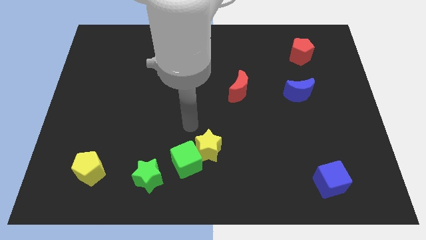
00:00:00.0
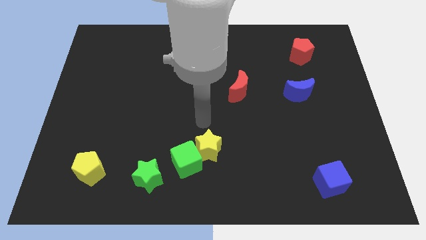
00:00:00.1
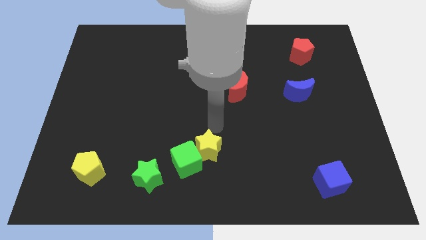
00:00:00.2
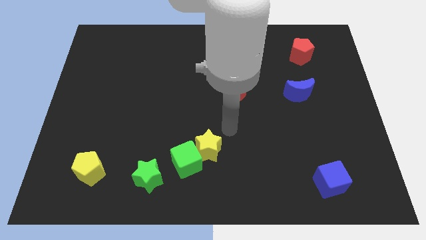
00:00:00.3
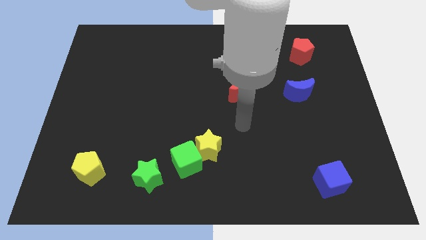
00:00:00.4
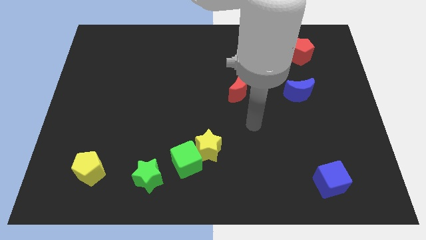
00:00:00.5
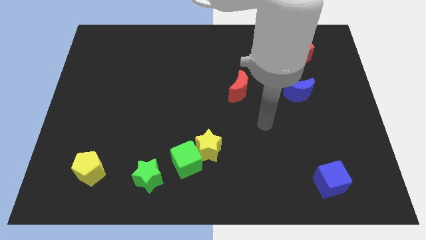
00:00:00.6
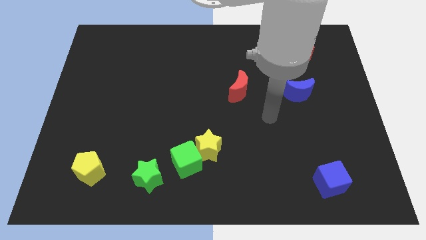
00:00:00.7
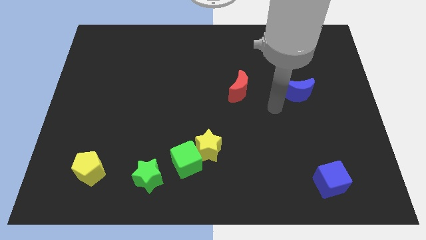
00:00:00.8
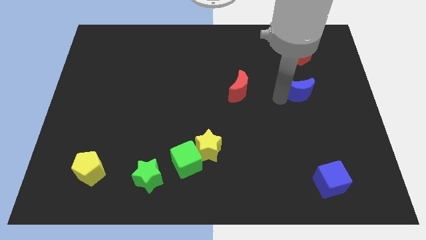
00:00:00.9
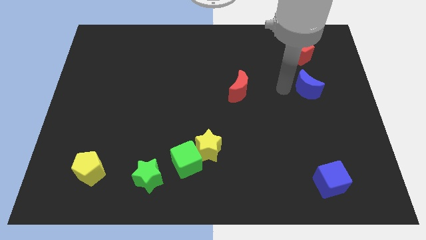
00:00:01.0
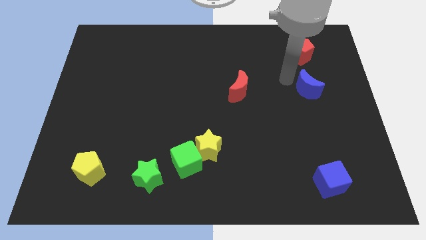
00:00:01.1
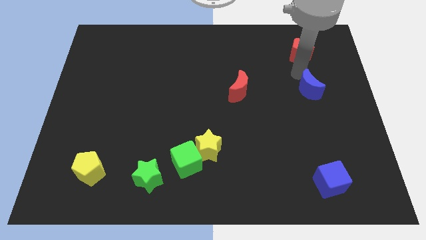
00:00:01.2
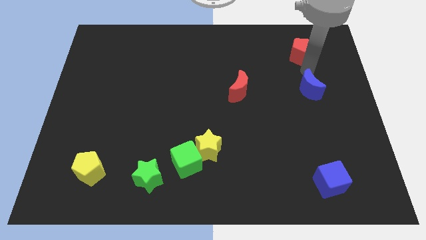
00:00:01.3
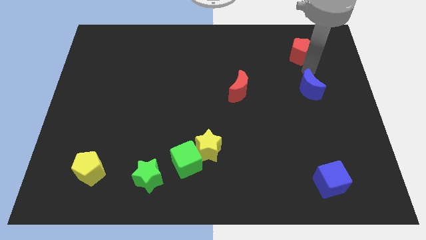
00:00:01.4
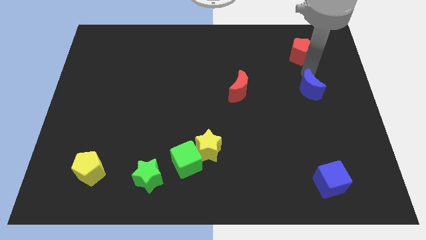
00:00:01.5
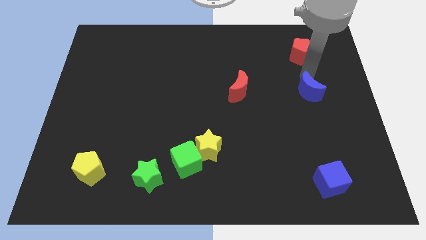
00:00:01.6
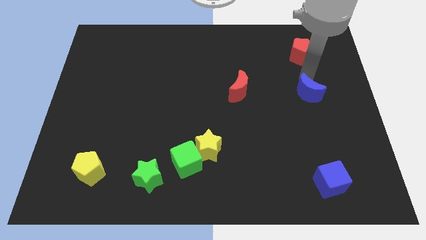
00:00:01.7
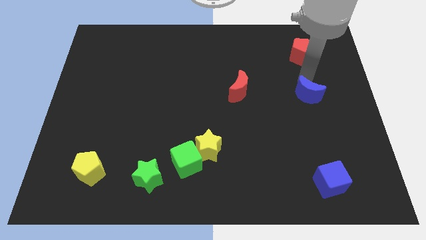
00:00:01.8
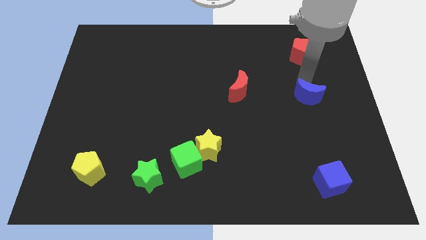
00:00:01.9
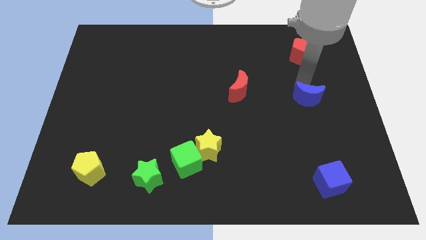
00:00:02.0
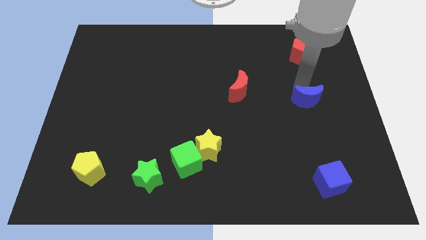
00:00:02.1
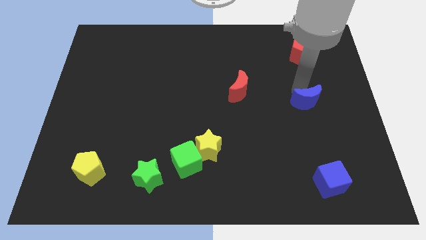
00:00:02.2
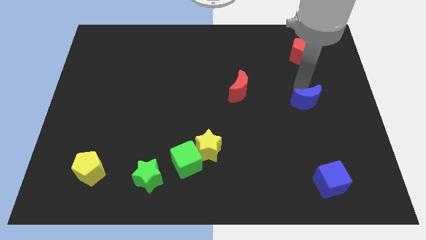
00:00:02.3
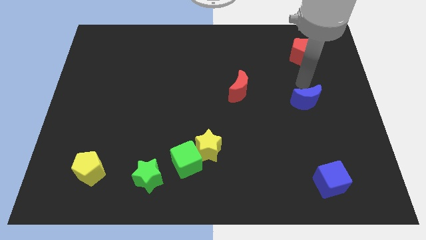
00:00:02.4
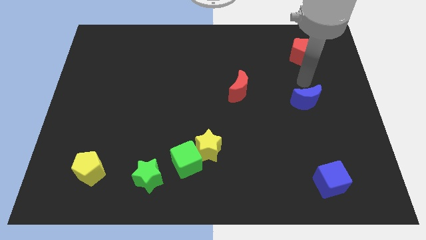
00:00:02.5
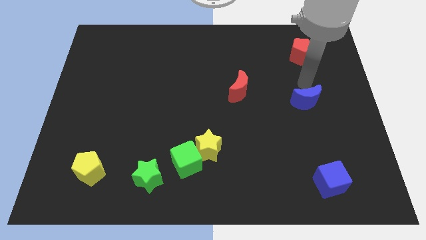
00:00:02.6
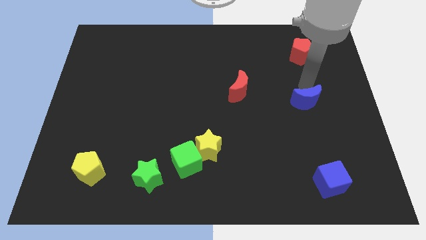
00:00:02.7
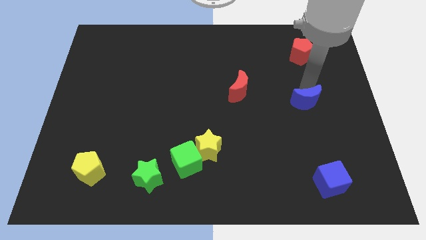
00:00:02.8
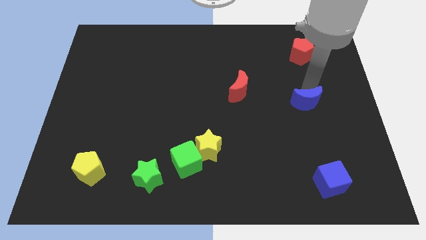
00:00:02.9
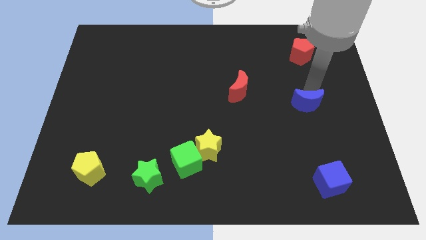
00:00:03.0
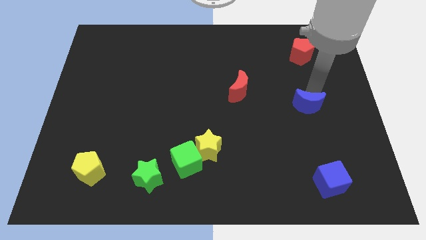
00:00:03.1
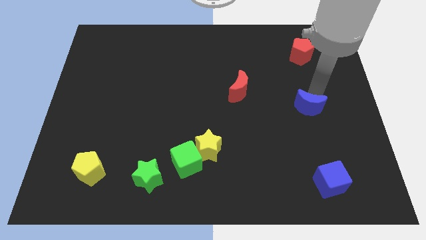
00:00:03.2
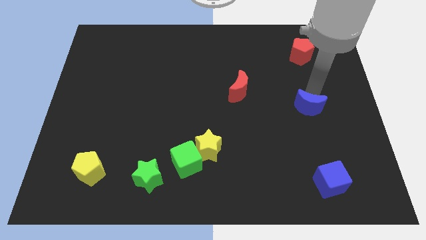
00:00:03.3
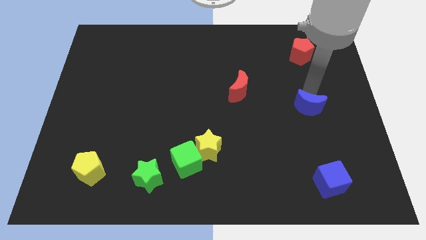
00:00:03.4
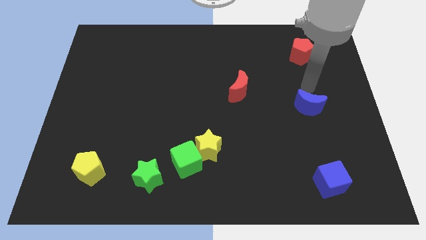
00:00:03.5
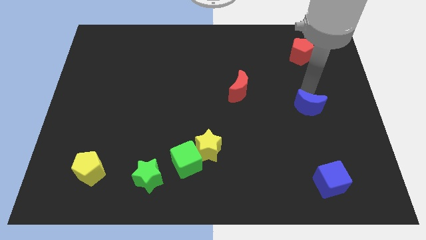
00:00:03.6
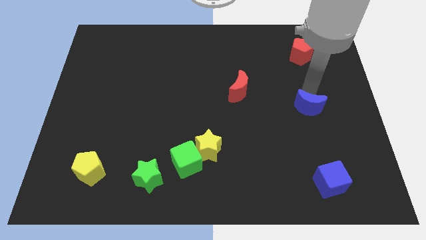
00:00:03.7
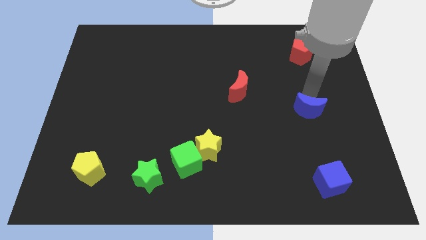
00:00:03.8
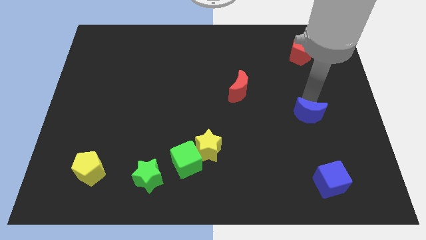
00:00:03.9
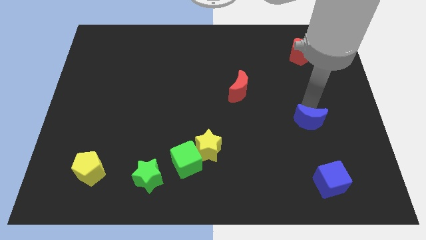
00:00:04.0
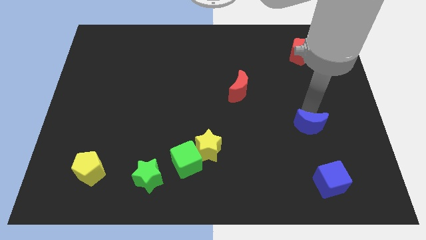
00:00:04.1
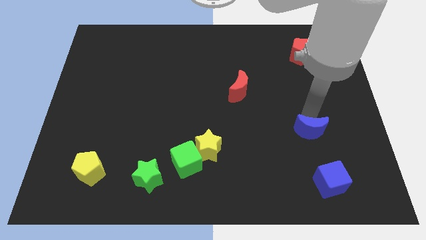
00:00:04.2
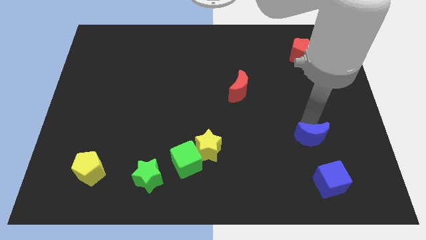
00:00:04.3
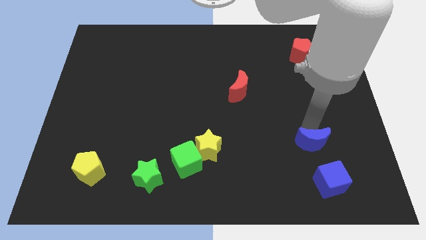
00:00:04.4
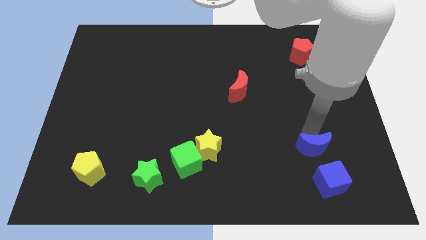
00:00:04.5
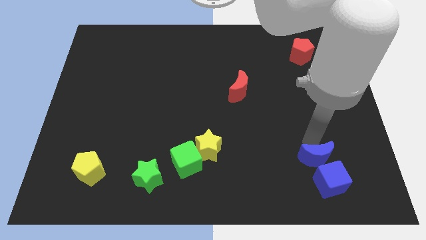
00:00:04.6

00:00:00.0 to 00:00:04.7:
push the blue moon next to the blue cube

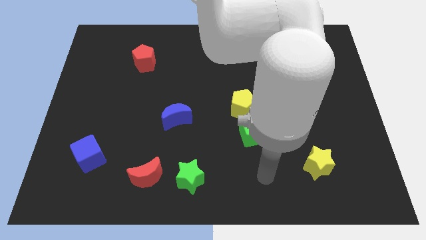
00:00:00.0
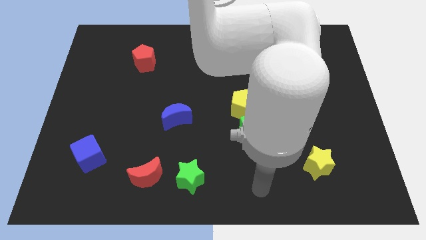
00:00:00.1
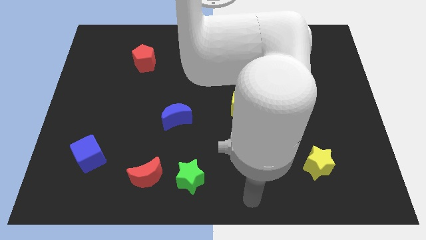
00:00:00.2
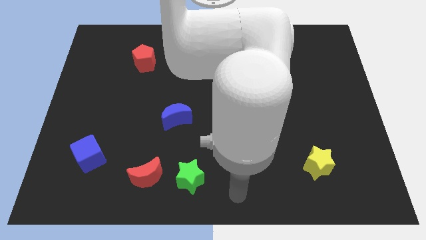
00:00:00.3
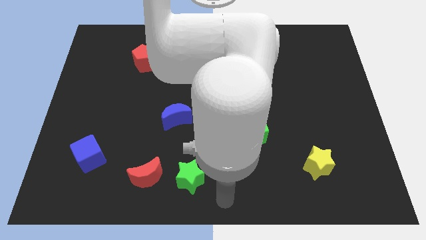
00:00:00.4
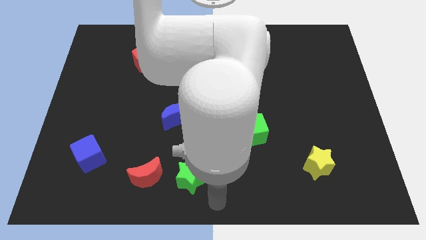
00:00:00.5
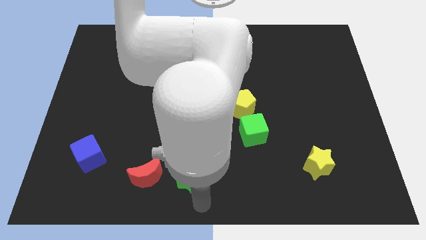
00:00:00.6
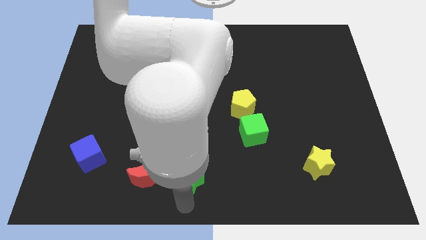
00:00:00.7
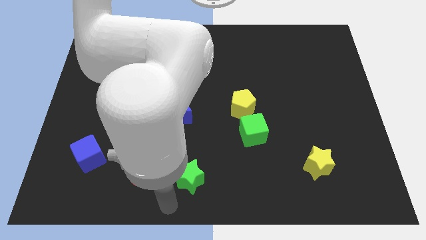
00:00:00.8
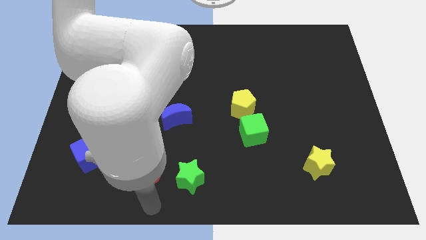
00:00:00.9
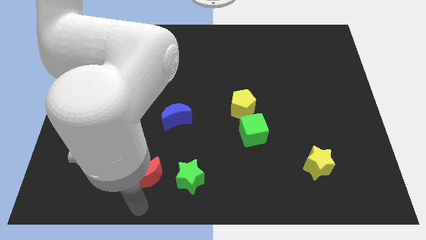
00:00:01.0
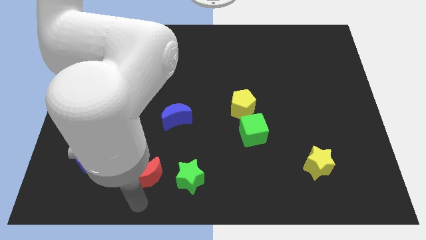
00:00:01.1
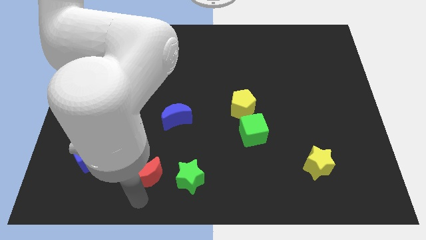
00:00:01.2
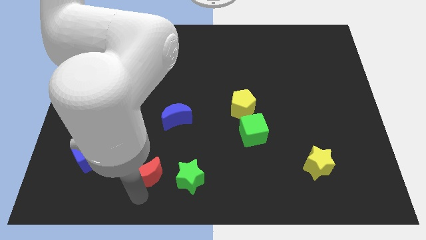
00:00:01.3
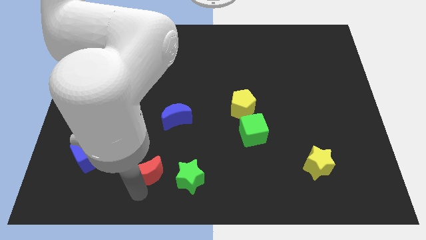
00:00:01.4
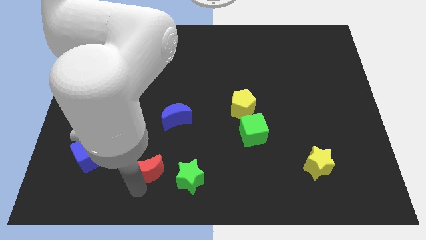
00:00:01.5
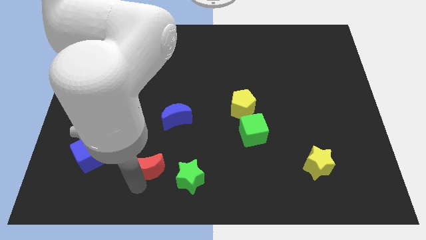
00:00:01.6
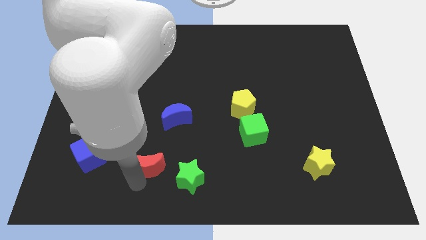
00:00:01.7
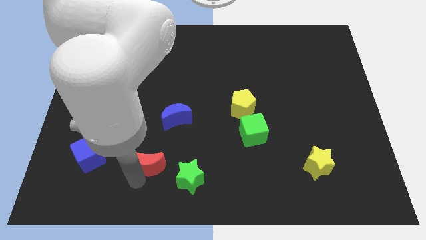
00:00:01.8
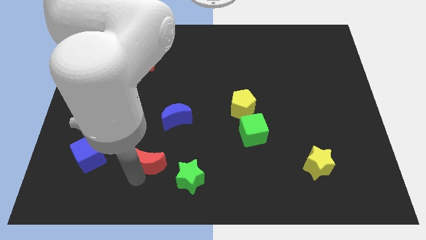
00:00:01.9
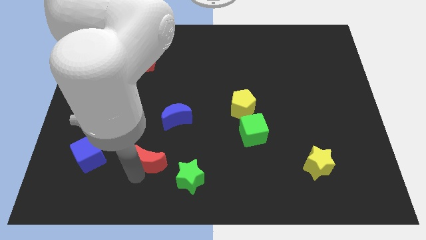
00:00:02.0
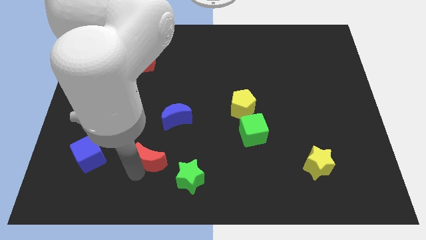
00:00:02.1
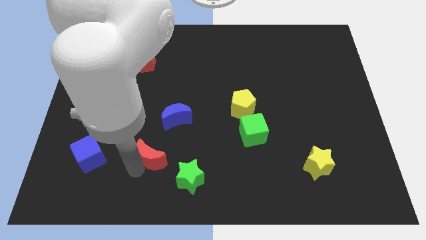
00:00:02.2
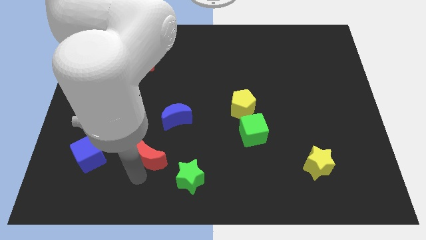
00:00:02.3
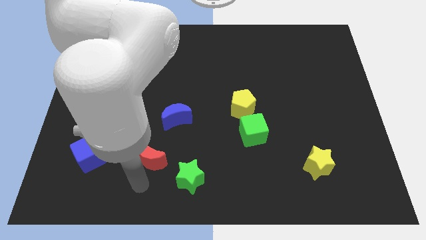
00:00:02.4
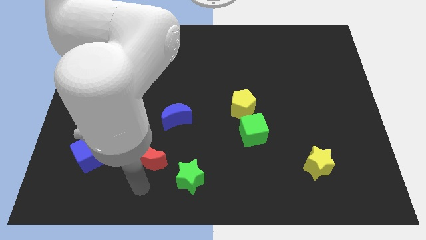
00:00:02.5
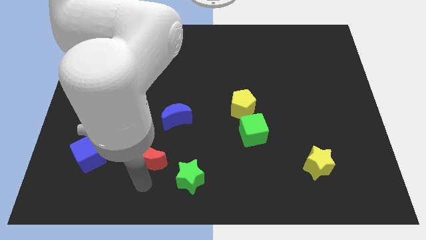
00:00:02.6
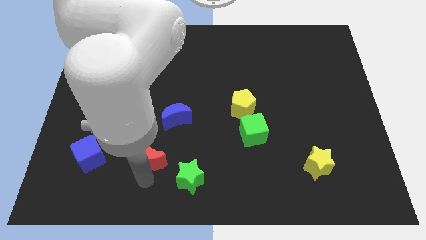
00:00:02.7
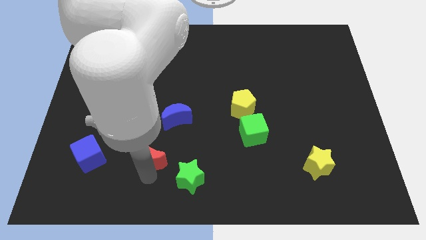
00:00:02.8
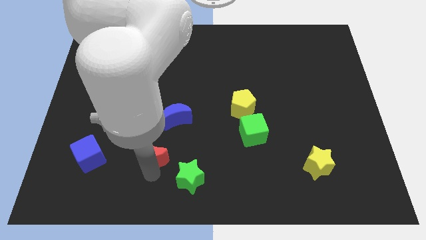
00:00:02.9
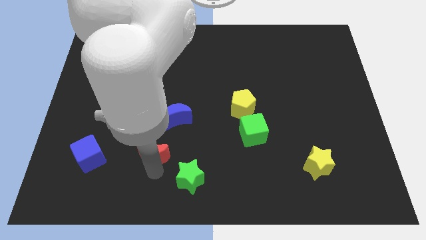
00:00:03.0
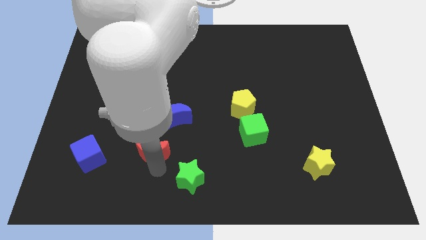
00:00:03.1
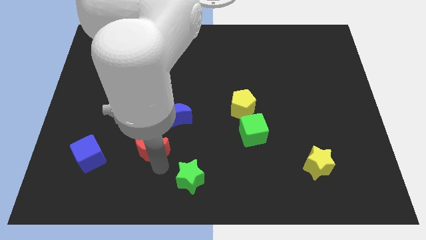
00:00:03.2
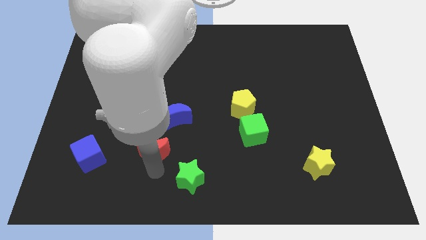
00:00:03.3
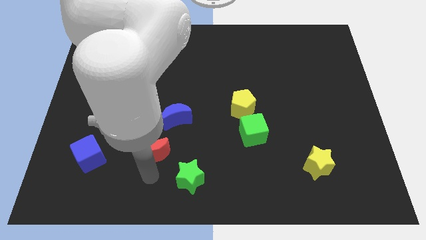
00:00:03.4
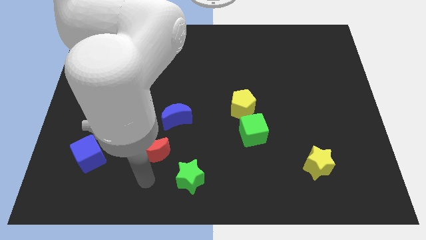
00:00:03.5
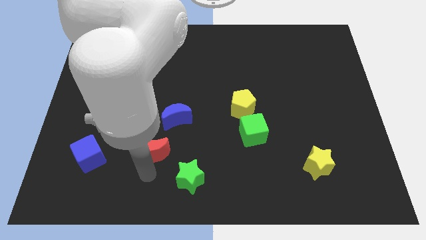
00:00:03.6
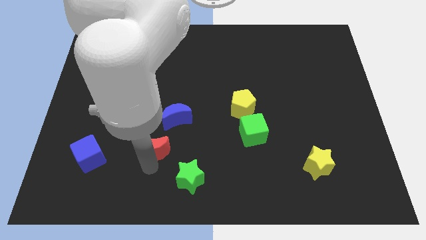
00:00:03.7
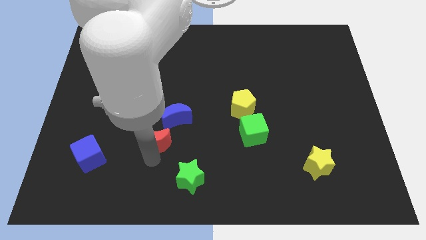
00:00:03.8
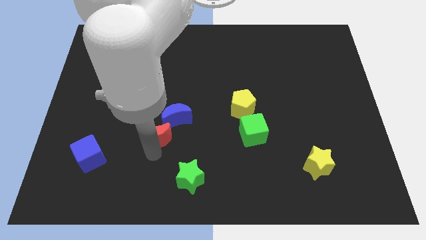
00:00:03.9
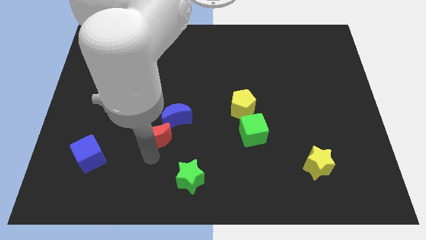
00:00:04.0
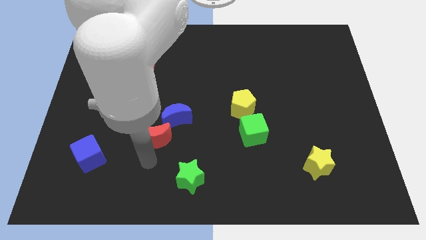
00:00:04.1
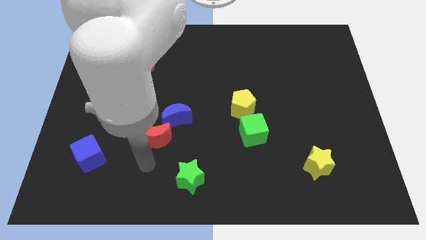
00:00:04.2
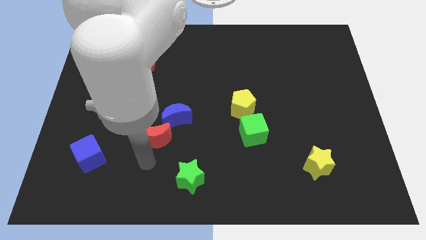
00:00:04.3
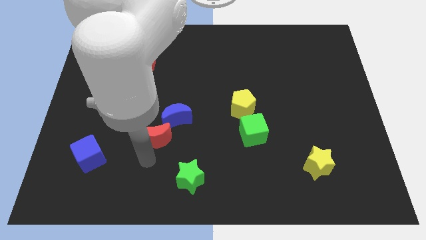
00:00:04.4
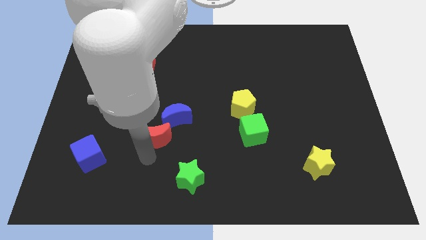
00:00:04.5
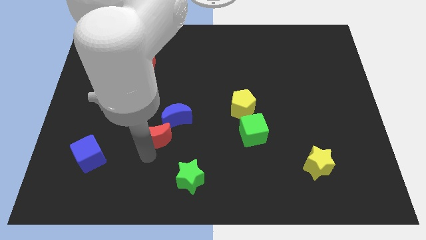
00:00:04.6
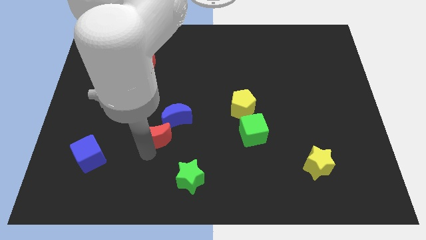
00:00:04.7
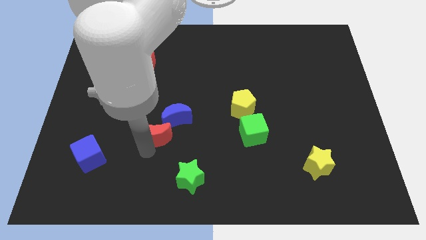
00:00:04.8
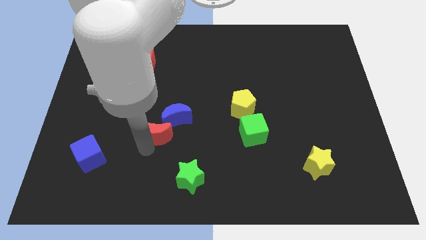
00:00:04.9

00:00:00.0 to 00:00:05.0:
put the red moon towards the blue moon
